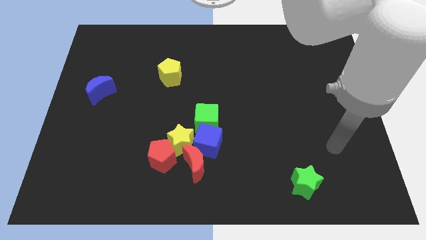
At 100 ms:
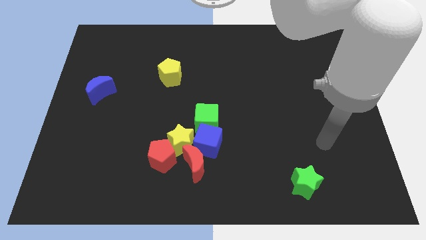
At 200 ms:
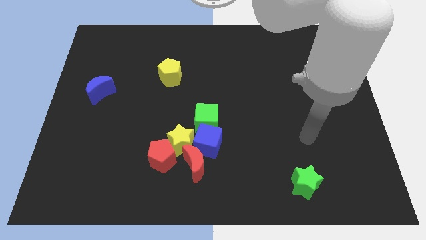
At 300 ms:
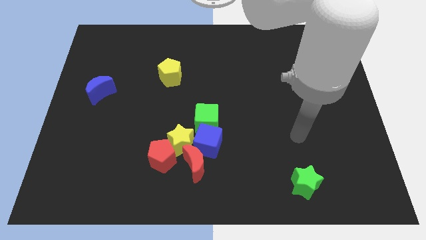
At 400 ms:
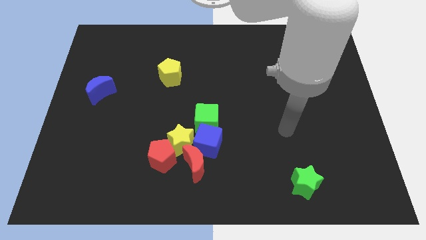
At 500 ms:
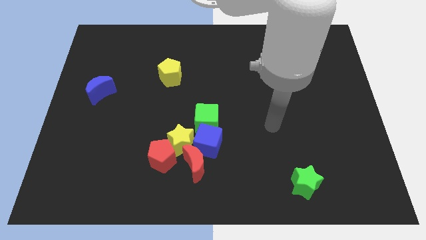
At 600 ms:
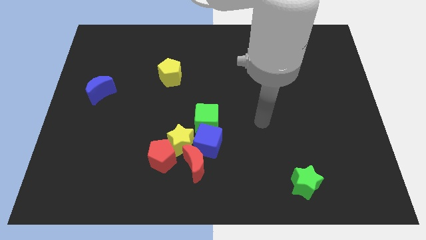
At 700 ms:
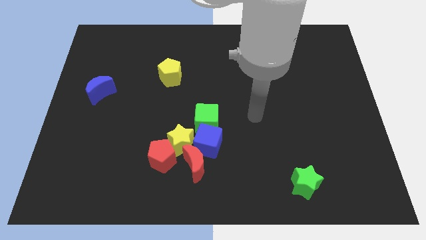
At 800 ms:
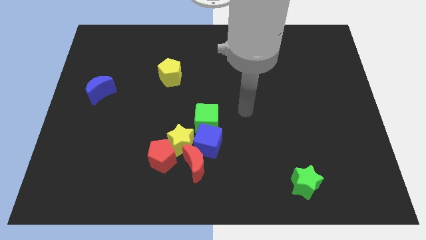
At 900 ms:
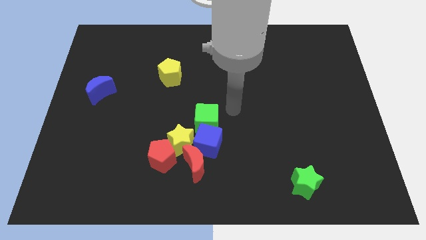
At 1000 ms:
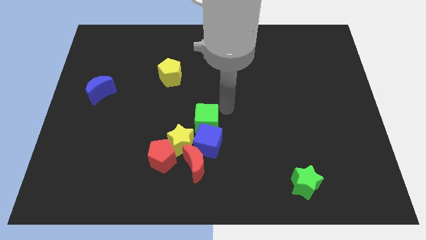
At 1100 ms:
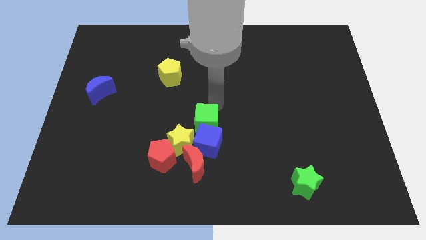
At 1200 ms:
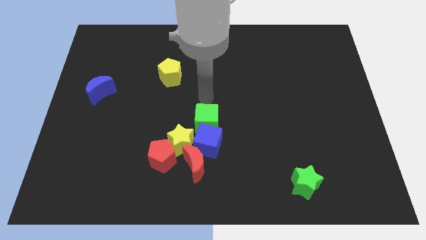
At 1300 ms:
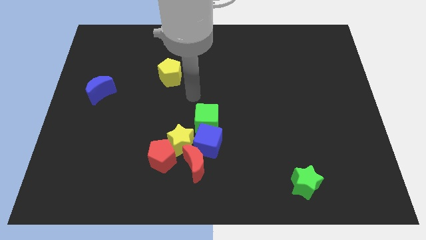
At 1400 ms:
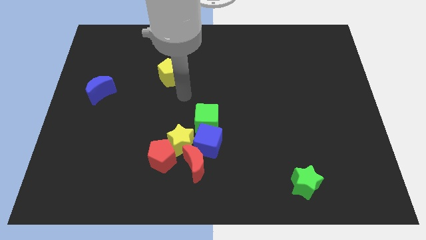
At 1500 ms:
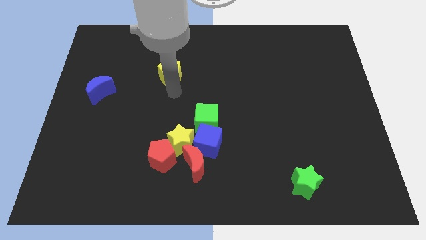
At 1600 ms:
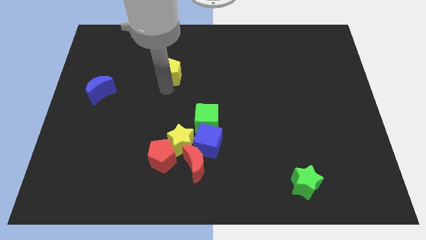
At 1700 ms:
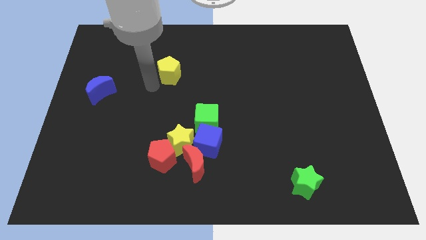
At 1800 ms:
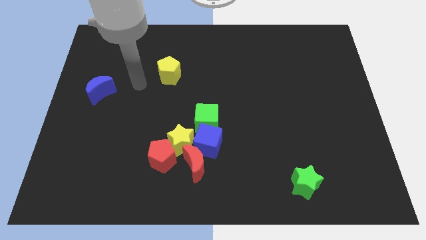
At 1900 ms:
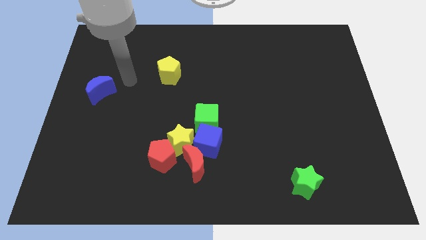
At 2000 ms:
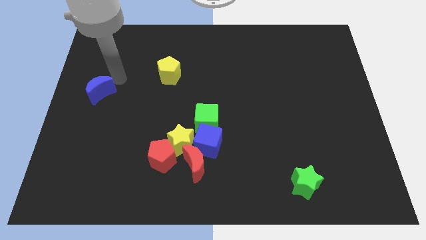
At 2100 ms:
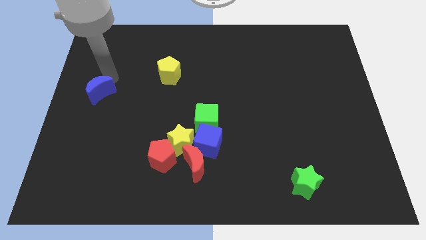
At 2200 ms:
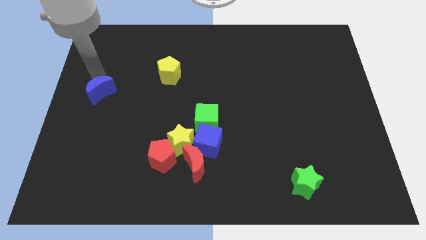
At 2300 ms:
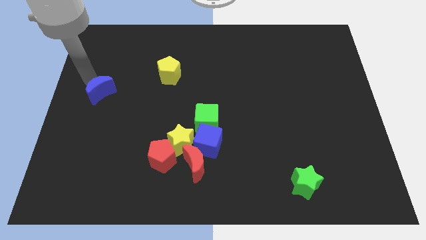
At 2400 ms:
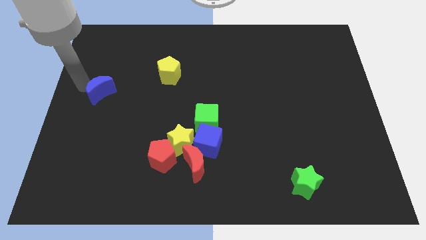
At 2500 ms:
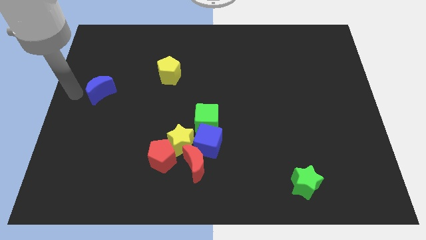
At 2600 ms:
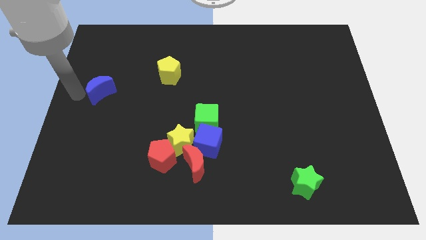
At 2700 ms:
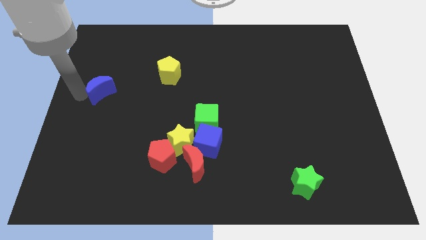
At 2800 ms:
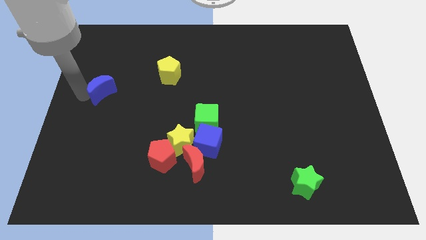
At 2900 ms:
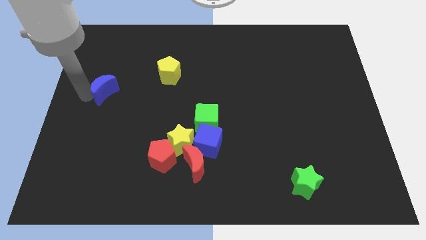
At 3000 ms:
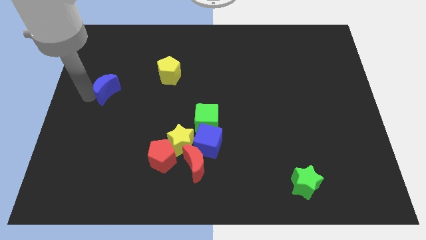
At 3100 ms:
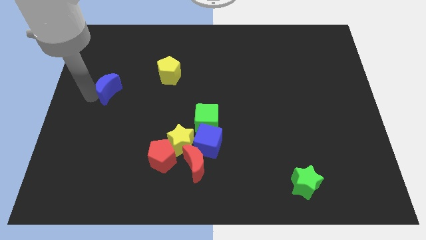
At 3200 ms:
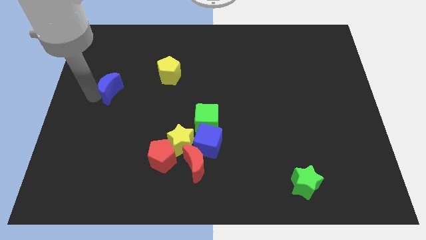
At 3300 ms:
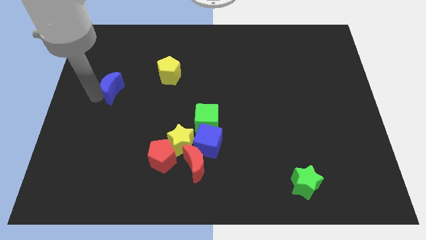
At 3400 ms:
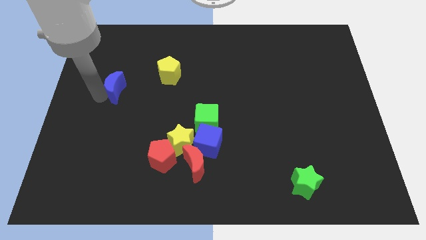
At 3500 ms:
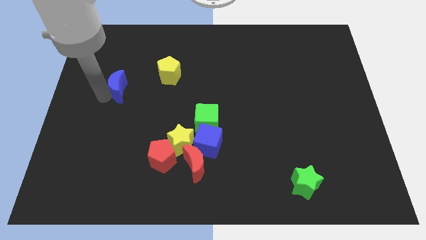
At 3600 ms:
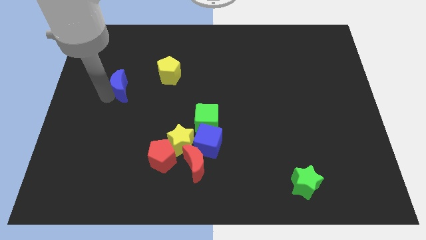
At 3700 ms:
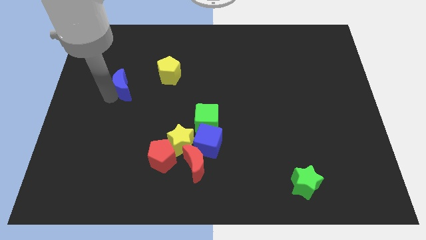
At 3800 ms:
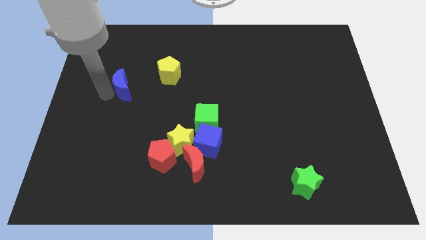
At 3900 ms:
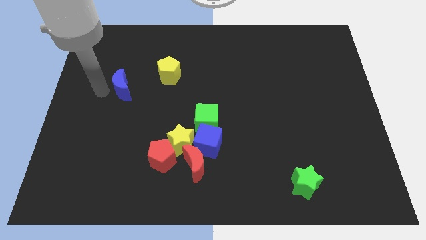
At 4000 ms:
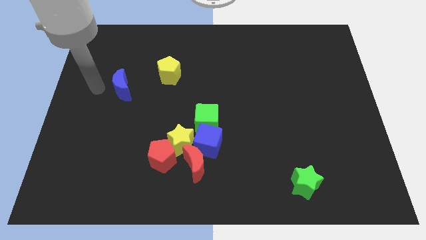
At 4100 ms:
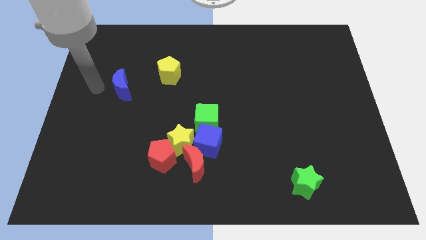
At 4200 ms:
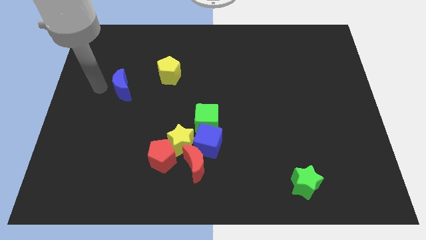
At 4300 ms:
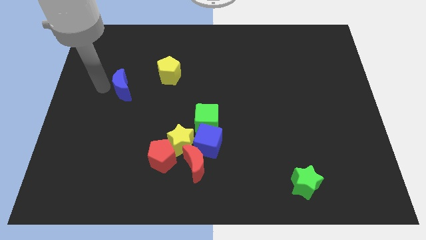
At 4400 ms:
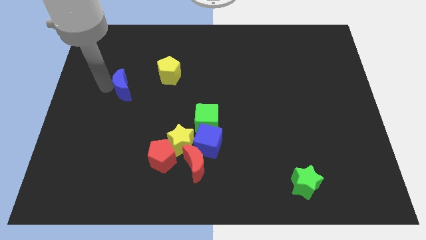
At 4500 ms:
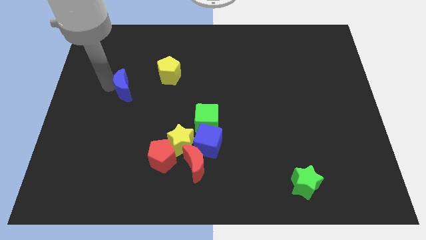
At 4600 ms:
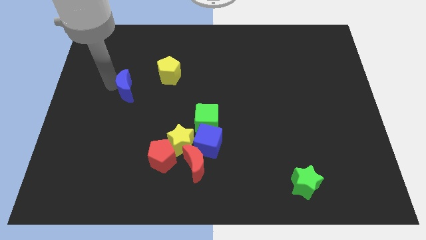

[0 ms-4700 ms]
slide the blue moon to the bottom left side of the yellow pentagon

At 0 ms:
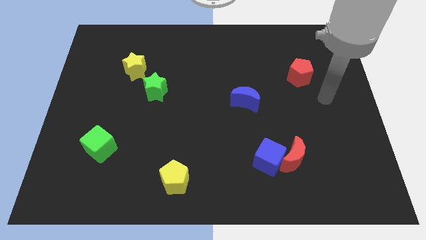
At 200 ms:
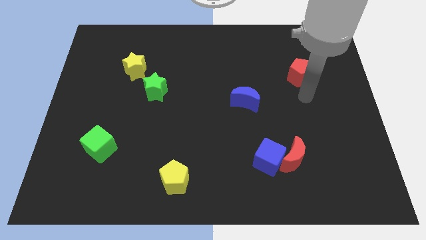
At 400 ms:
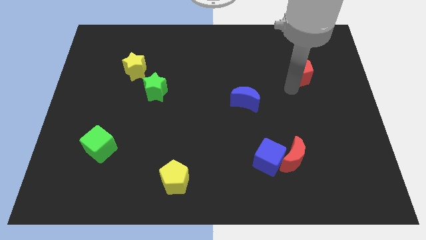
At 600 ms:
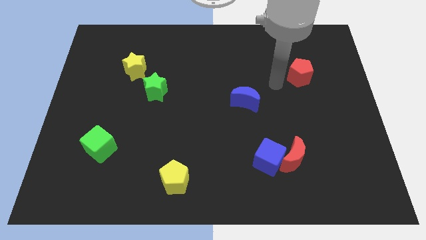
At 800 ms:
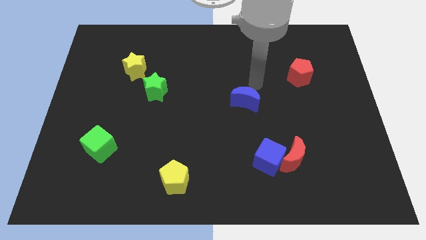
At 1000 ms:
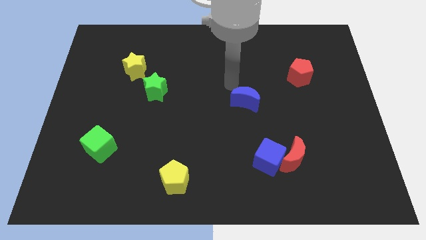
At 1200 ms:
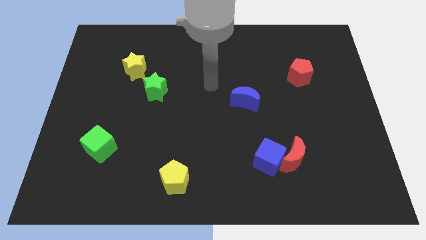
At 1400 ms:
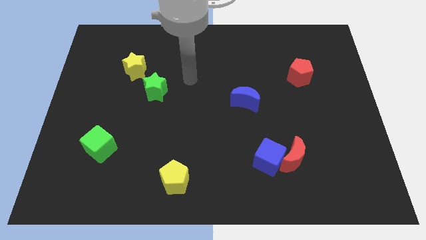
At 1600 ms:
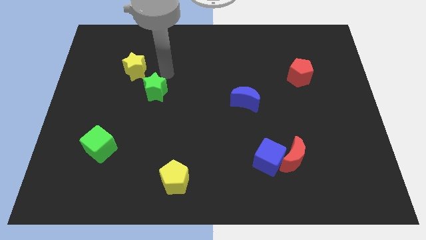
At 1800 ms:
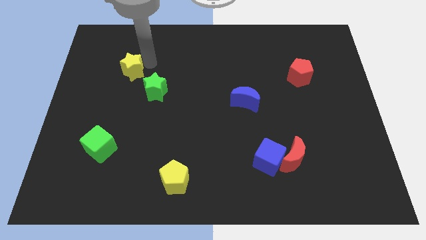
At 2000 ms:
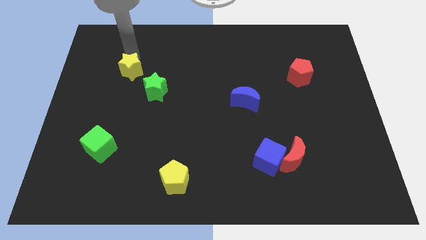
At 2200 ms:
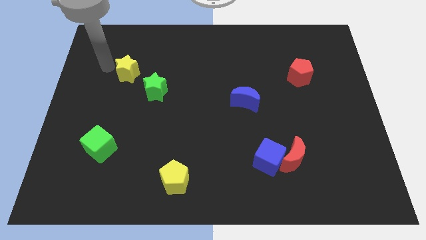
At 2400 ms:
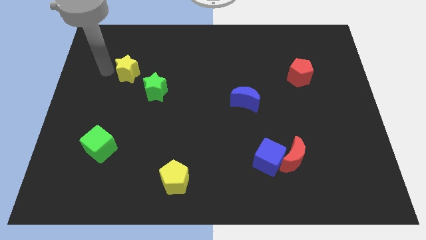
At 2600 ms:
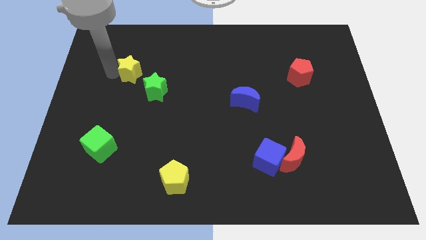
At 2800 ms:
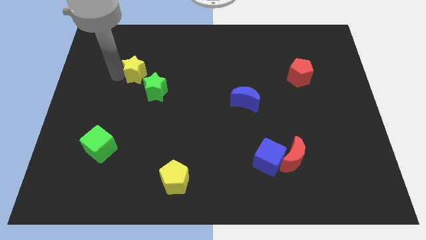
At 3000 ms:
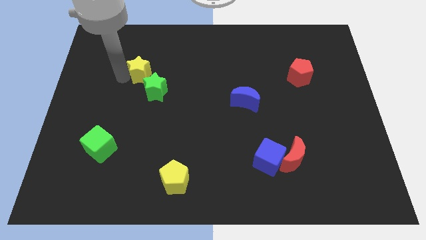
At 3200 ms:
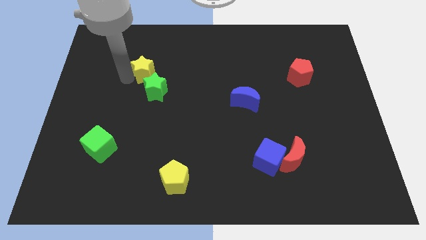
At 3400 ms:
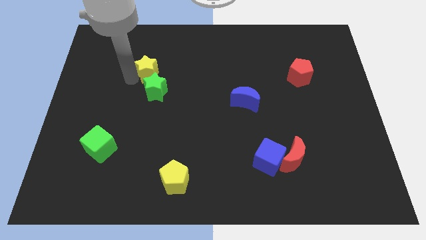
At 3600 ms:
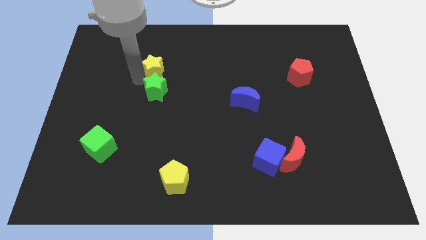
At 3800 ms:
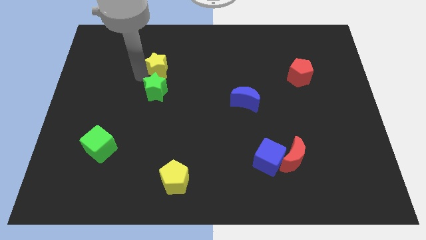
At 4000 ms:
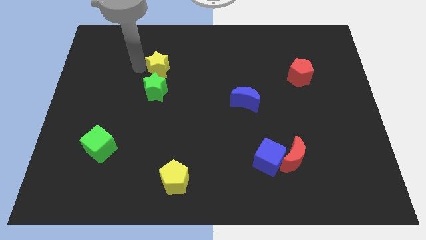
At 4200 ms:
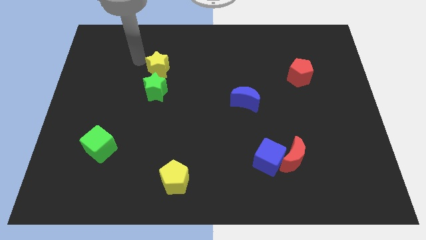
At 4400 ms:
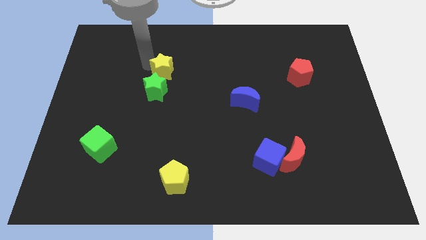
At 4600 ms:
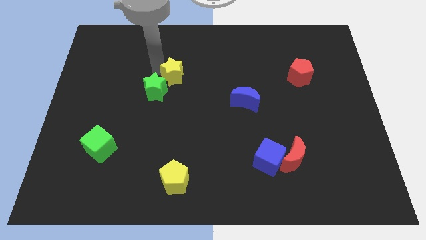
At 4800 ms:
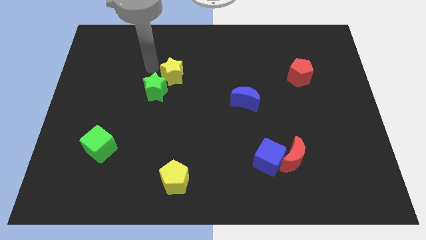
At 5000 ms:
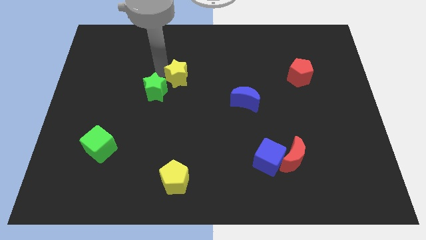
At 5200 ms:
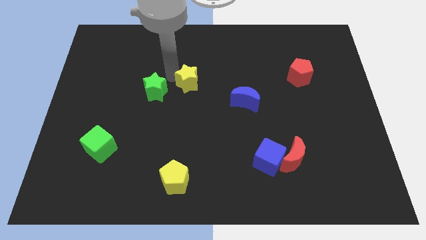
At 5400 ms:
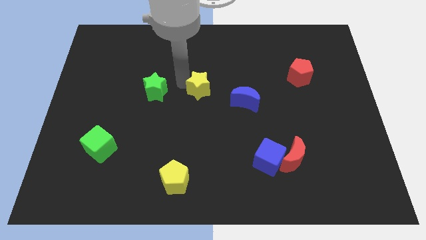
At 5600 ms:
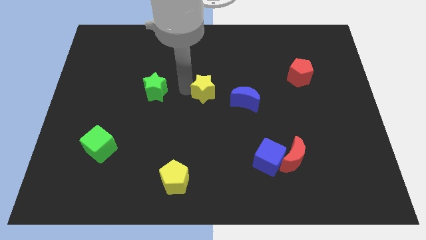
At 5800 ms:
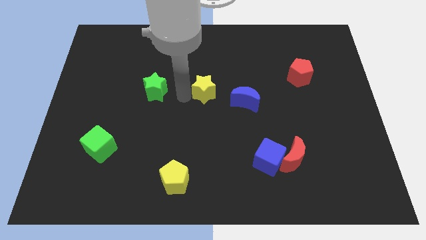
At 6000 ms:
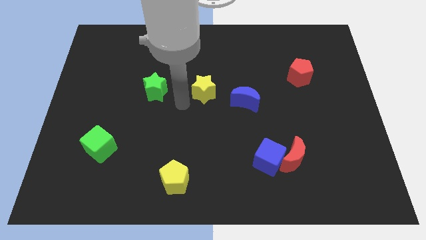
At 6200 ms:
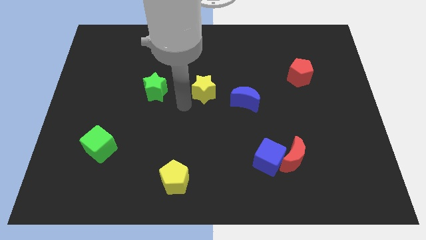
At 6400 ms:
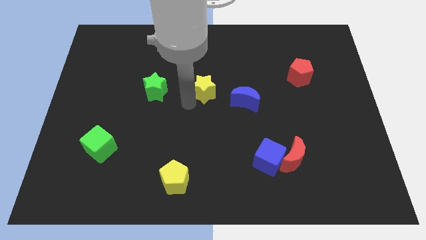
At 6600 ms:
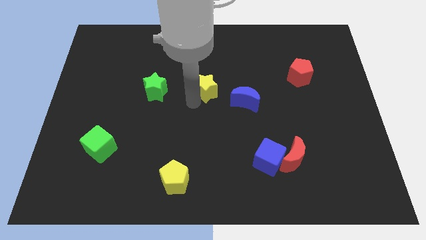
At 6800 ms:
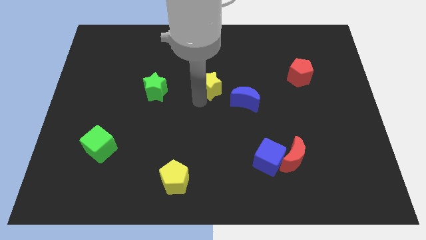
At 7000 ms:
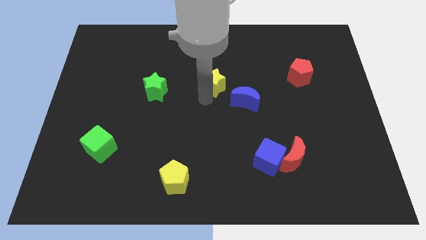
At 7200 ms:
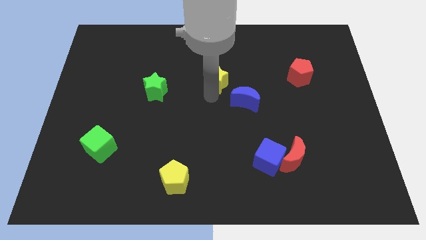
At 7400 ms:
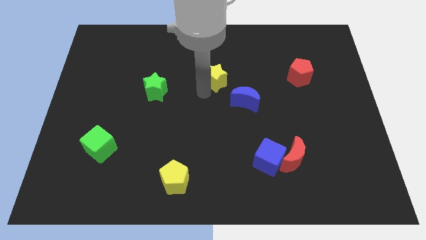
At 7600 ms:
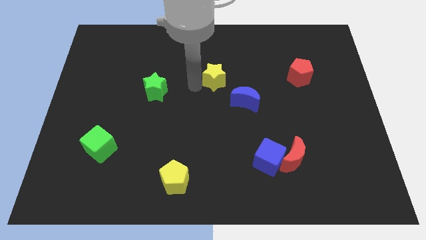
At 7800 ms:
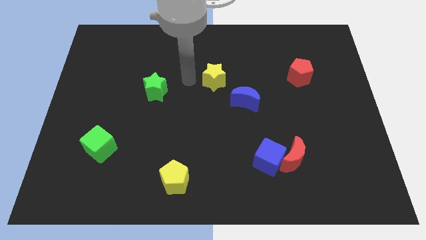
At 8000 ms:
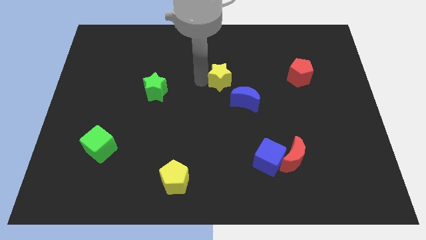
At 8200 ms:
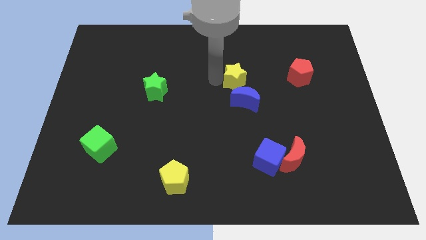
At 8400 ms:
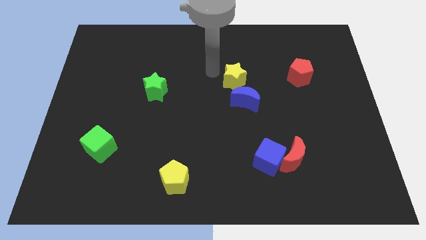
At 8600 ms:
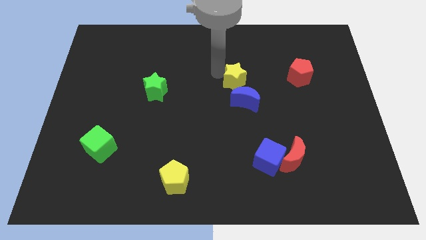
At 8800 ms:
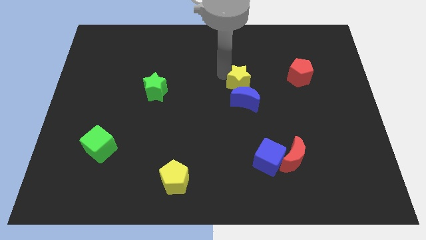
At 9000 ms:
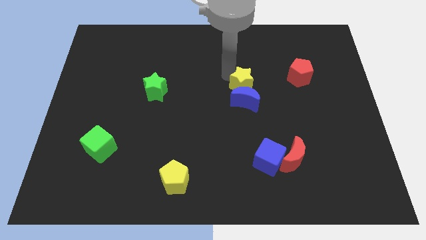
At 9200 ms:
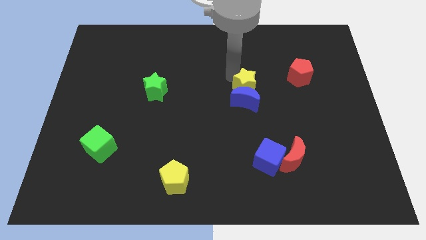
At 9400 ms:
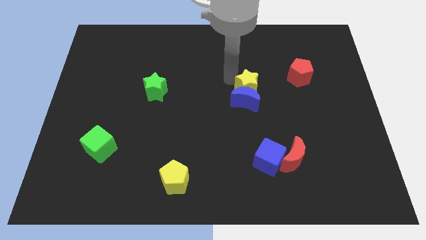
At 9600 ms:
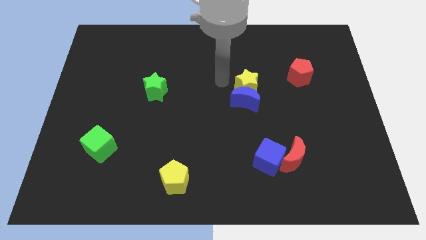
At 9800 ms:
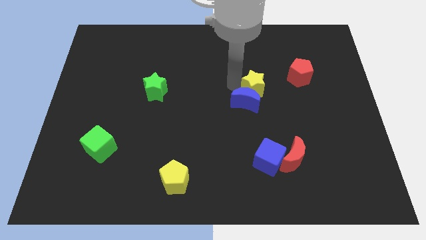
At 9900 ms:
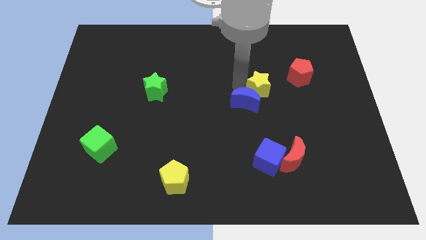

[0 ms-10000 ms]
put the yellow star right of the blue moon
